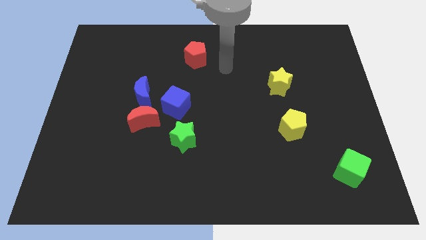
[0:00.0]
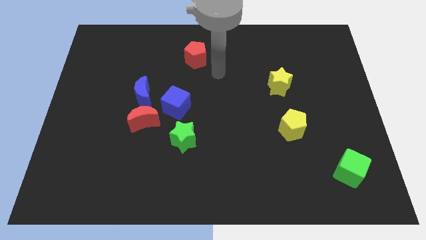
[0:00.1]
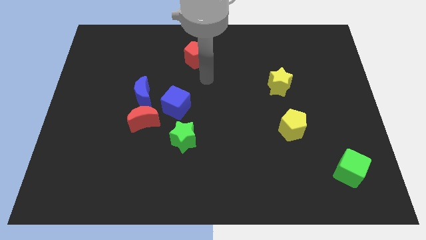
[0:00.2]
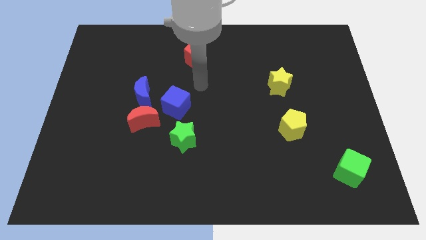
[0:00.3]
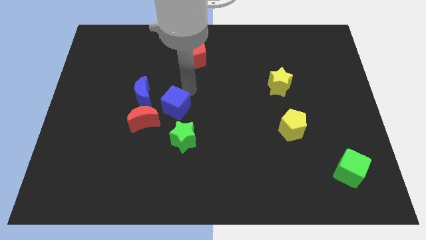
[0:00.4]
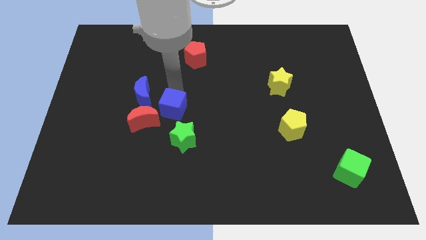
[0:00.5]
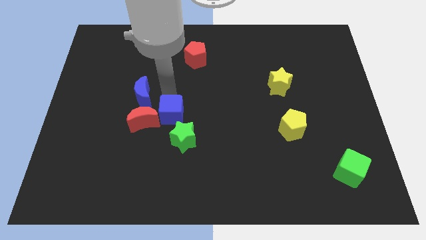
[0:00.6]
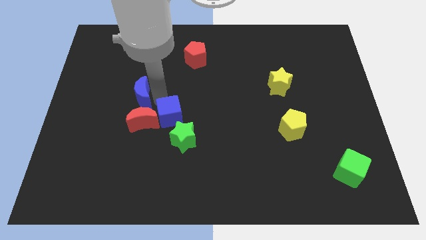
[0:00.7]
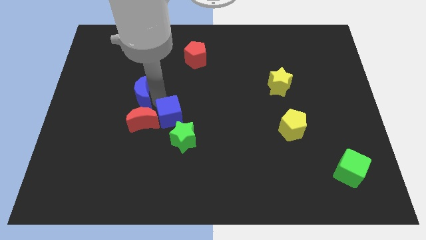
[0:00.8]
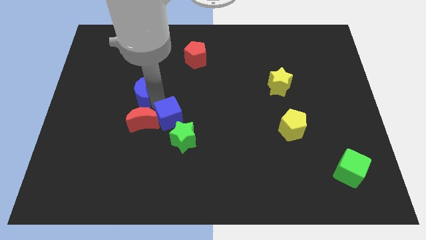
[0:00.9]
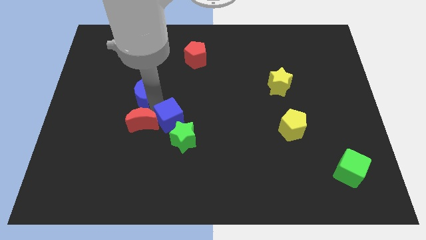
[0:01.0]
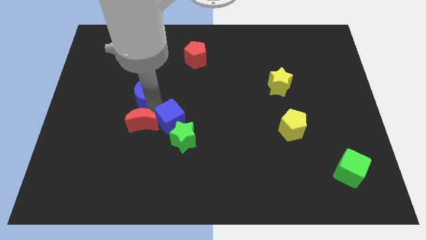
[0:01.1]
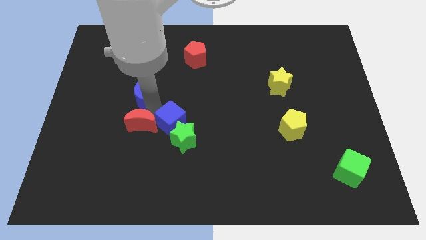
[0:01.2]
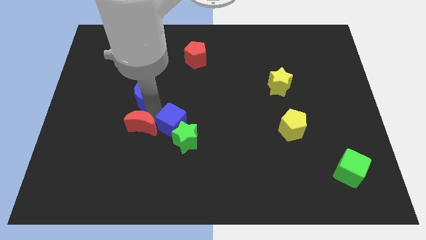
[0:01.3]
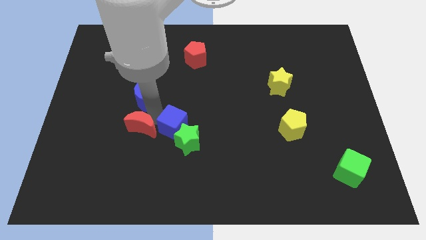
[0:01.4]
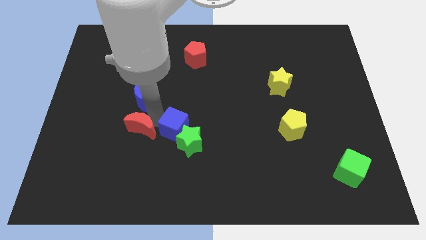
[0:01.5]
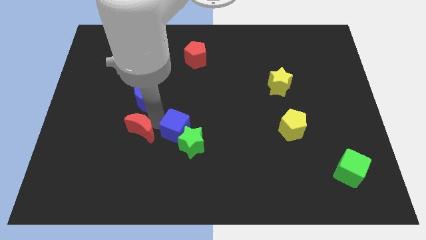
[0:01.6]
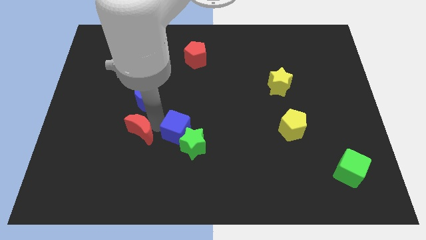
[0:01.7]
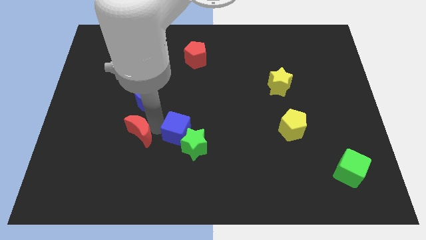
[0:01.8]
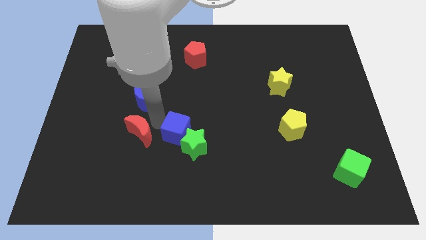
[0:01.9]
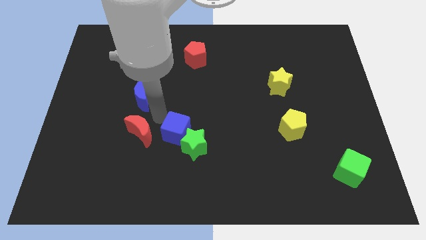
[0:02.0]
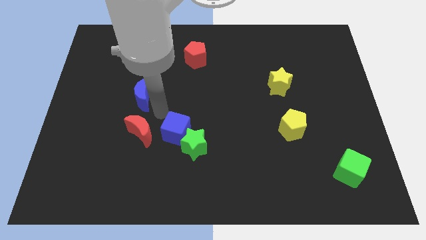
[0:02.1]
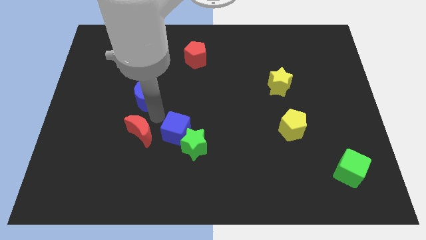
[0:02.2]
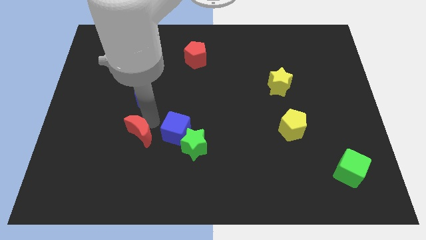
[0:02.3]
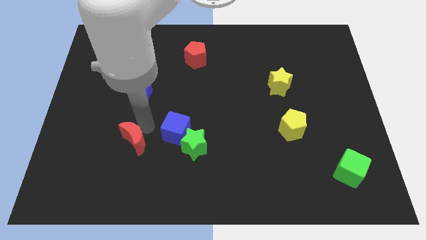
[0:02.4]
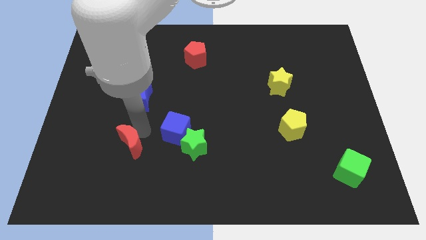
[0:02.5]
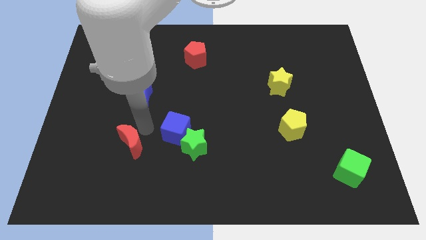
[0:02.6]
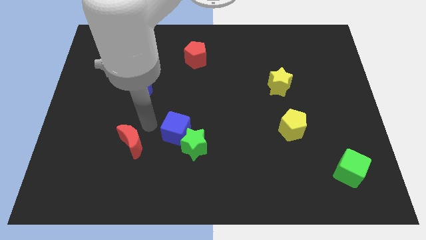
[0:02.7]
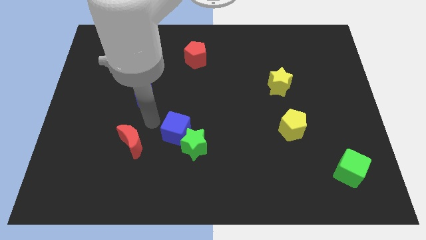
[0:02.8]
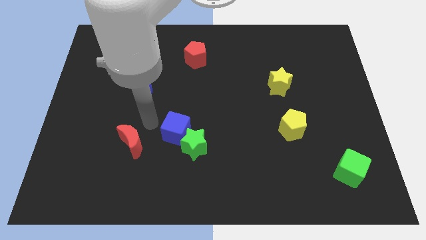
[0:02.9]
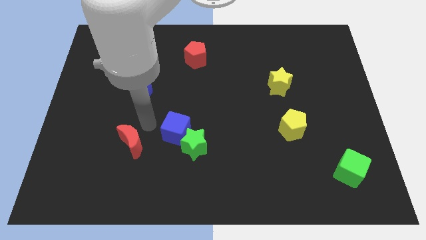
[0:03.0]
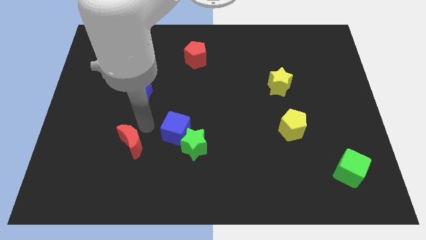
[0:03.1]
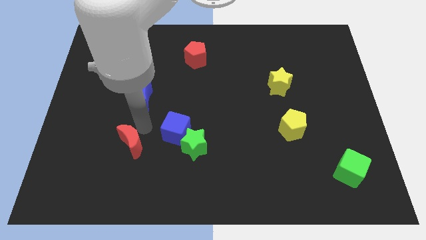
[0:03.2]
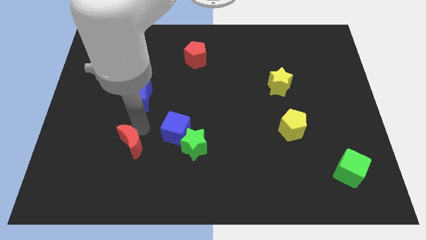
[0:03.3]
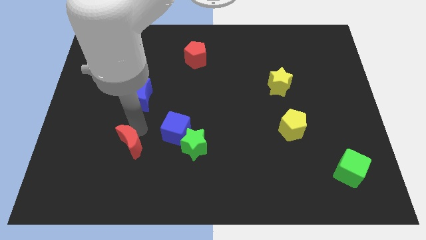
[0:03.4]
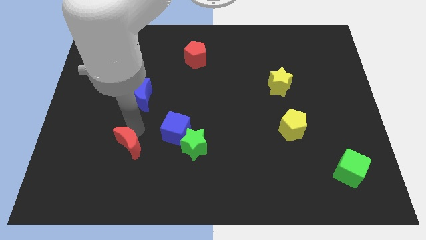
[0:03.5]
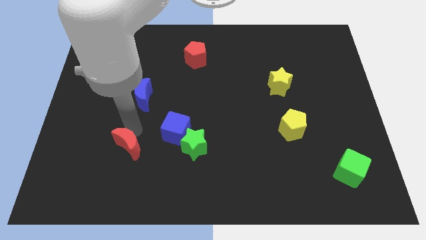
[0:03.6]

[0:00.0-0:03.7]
separate the red moon from the blue moon and blue cube

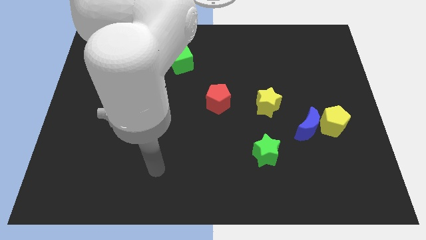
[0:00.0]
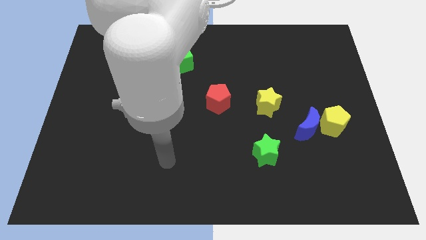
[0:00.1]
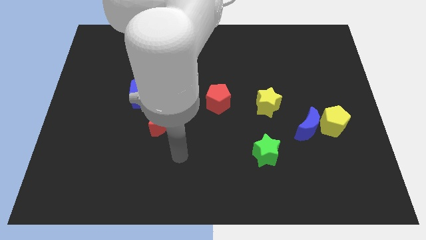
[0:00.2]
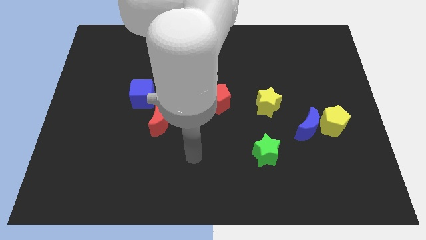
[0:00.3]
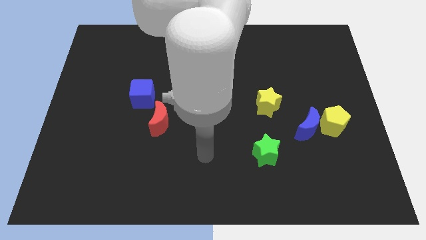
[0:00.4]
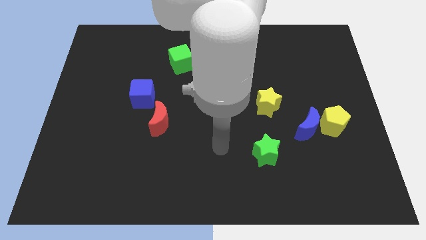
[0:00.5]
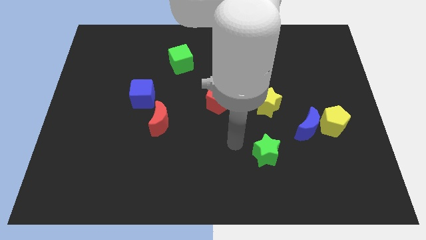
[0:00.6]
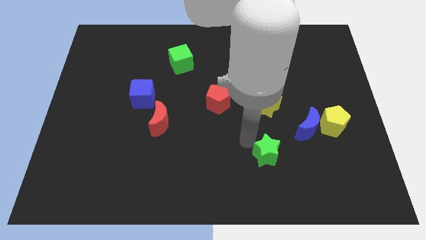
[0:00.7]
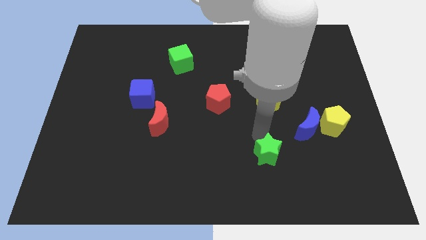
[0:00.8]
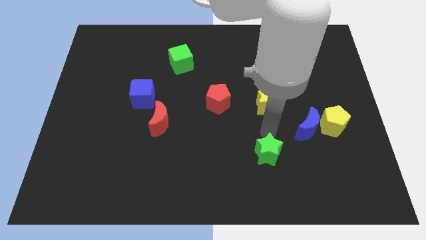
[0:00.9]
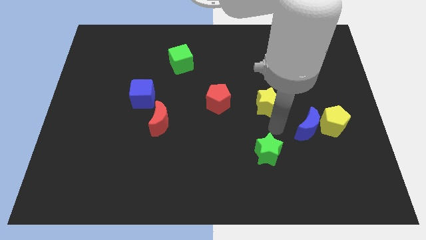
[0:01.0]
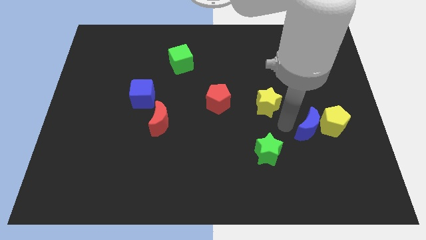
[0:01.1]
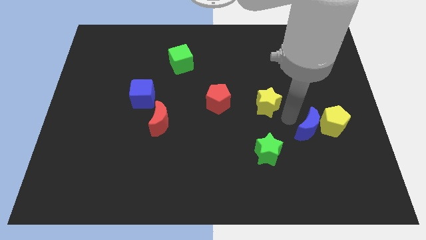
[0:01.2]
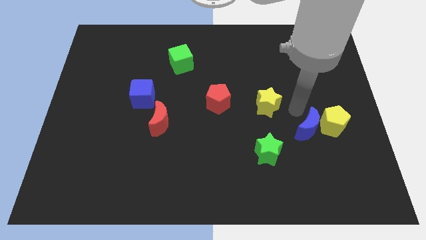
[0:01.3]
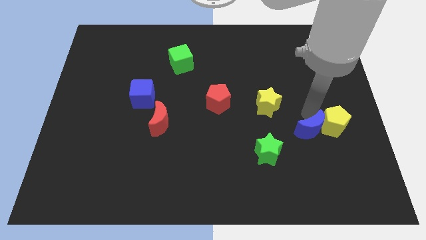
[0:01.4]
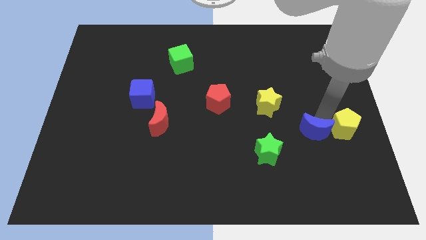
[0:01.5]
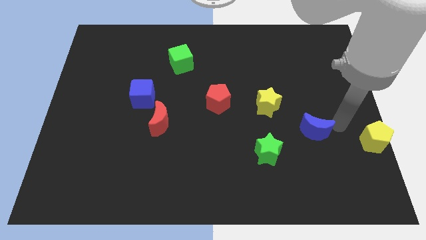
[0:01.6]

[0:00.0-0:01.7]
pull the blue moon apart from the yellow pentagon

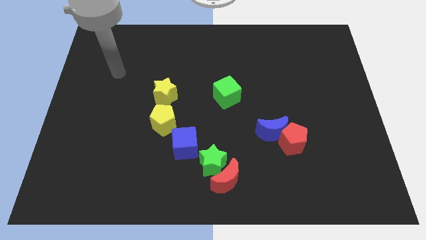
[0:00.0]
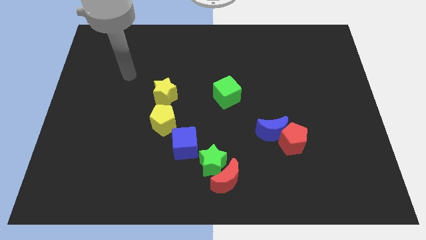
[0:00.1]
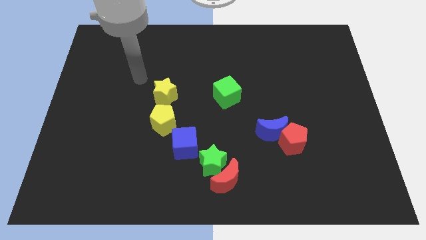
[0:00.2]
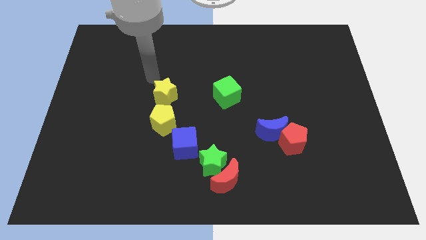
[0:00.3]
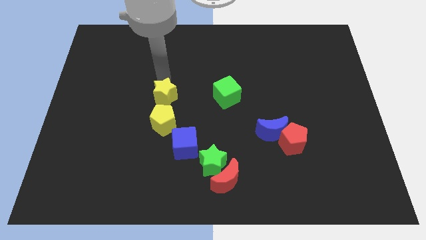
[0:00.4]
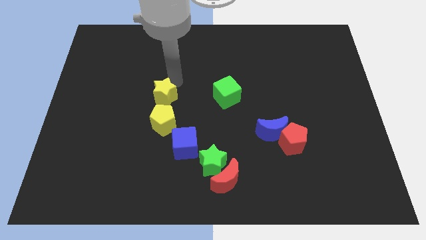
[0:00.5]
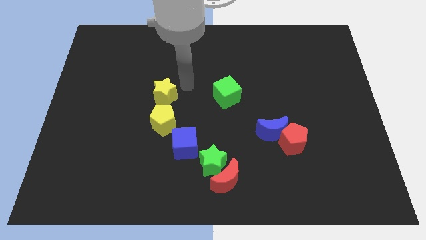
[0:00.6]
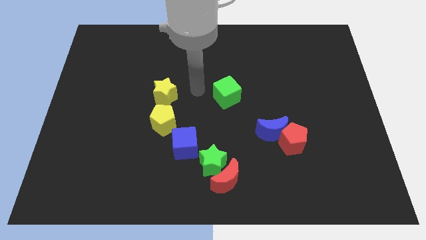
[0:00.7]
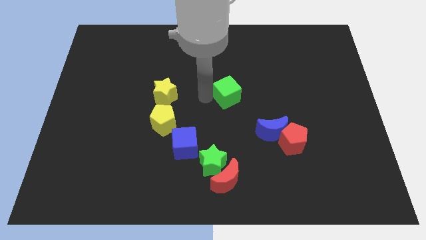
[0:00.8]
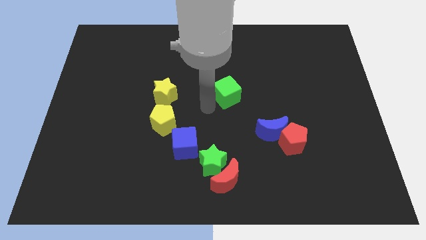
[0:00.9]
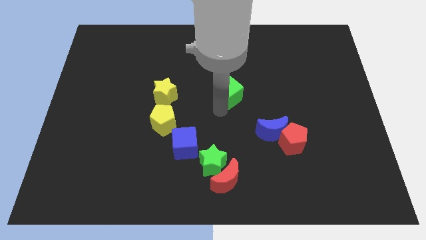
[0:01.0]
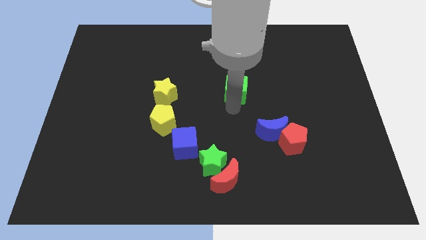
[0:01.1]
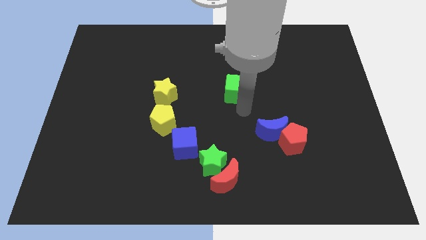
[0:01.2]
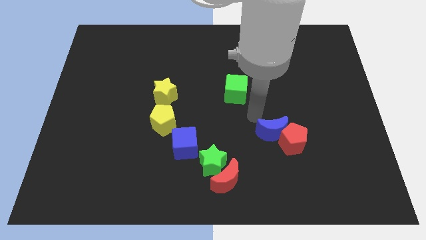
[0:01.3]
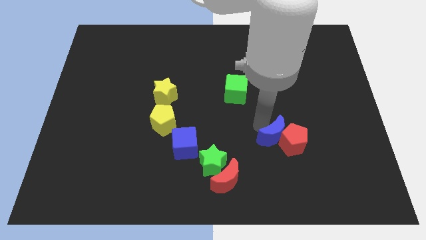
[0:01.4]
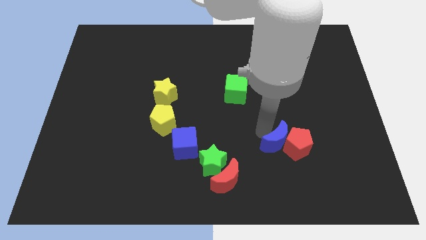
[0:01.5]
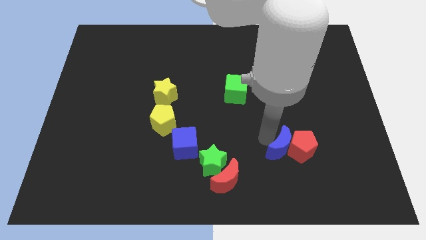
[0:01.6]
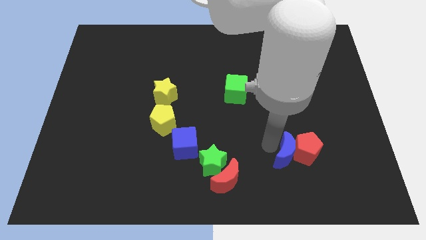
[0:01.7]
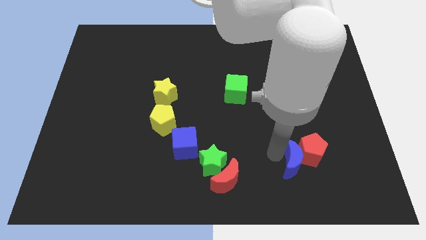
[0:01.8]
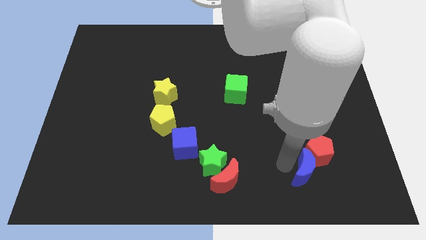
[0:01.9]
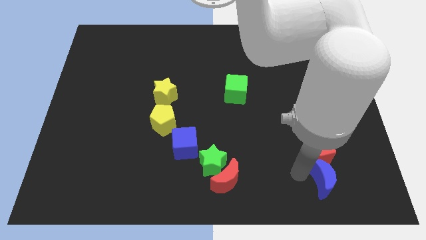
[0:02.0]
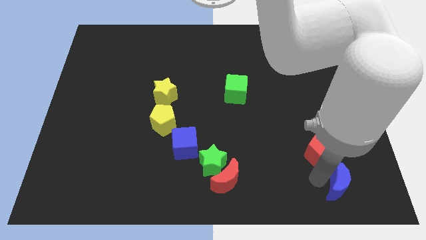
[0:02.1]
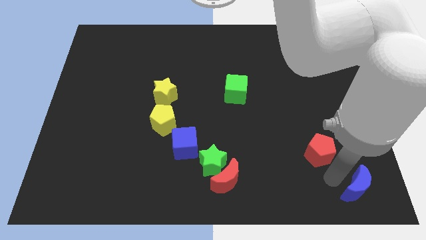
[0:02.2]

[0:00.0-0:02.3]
move the red pentagon away from the blue moon

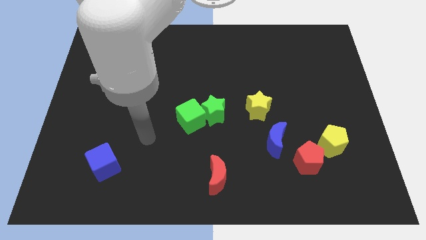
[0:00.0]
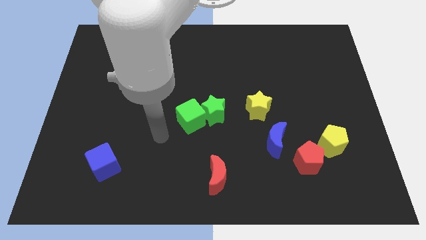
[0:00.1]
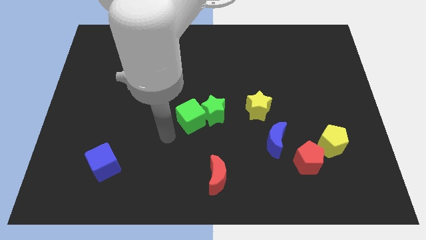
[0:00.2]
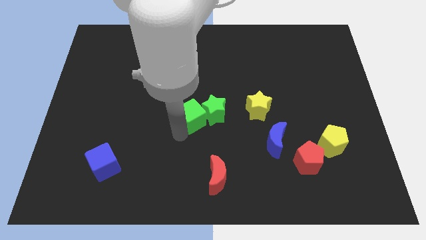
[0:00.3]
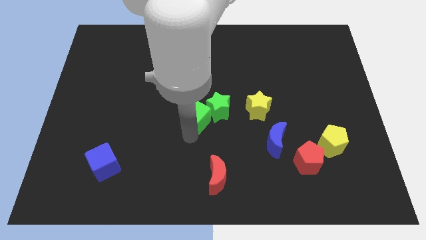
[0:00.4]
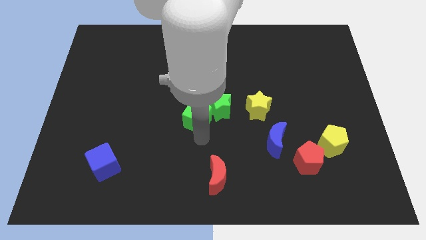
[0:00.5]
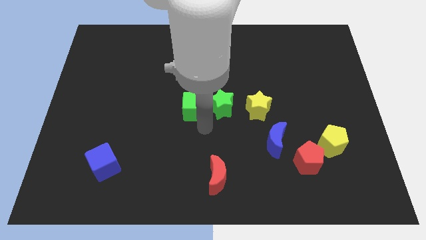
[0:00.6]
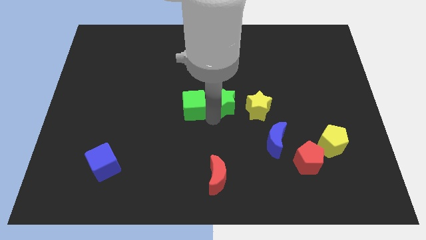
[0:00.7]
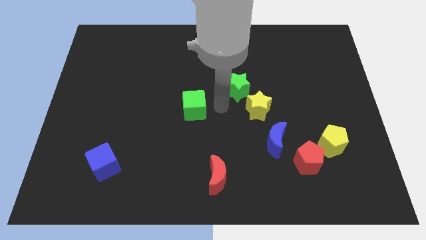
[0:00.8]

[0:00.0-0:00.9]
separate the green cube from the green star

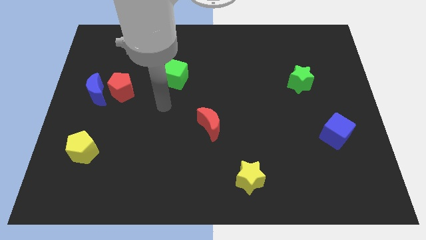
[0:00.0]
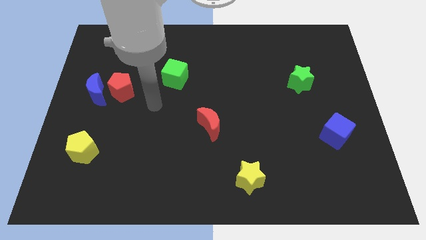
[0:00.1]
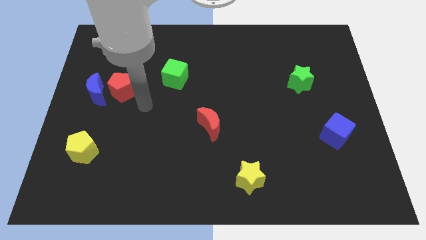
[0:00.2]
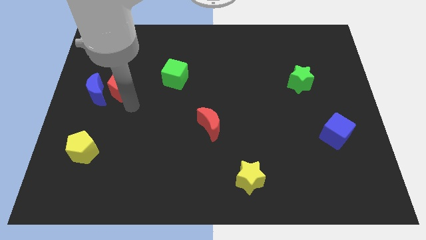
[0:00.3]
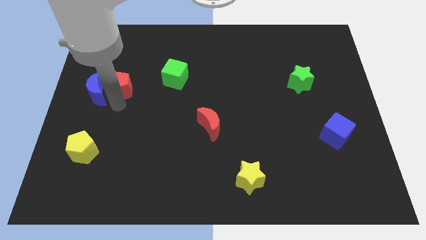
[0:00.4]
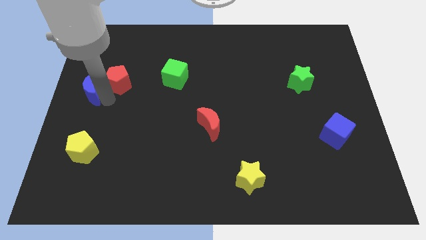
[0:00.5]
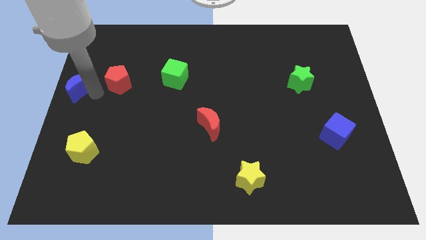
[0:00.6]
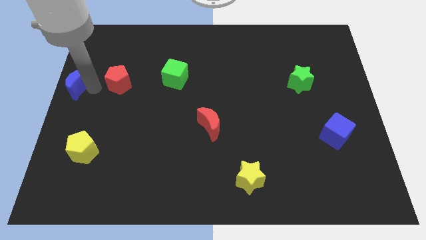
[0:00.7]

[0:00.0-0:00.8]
separate the red pentagon from the blue moon
